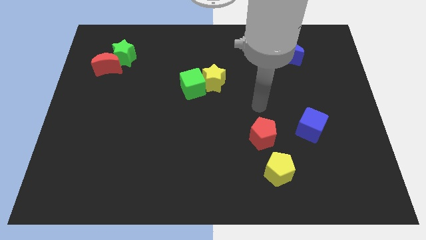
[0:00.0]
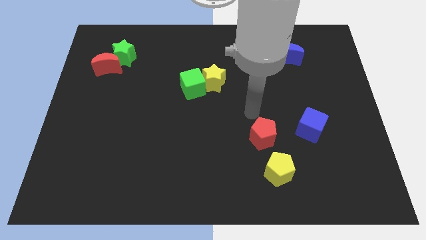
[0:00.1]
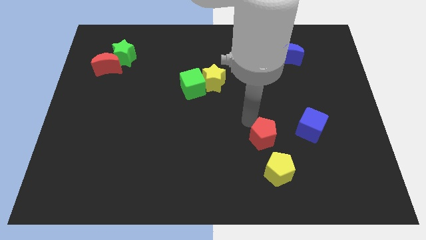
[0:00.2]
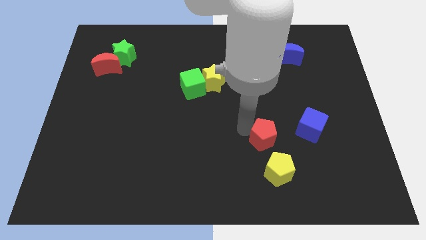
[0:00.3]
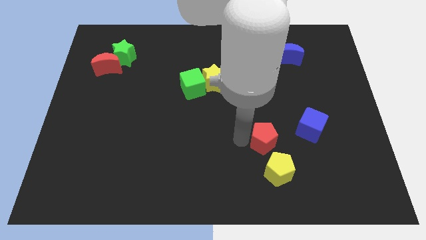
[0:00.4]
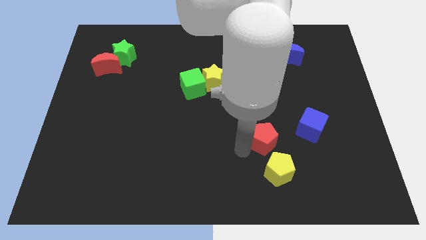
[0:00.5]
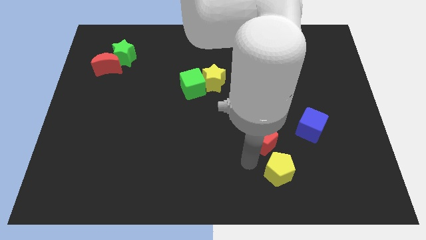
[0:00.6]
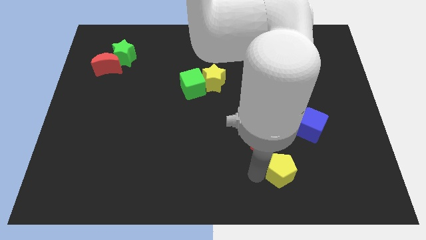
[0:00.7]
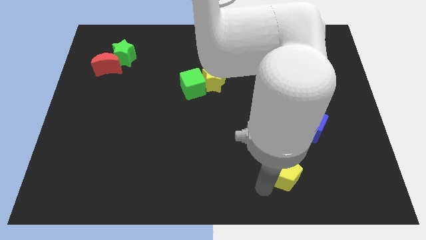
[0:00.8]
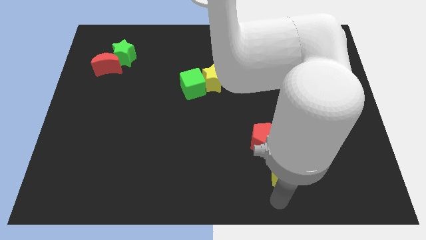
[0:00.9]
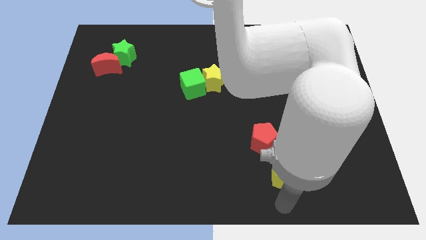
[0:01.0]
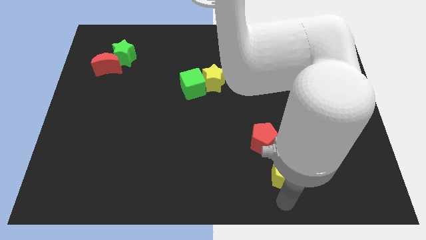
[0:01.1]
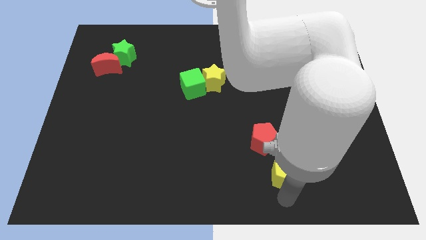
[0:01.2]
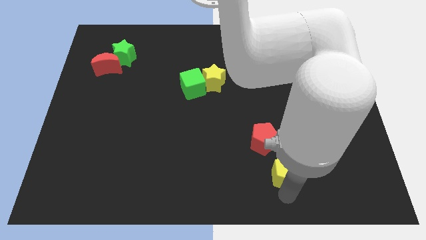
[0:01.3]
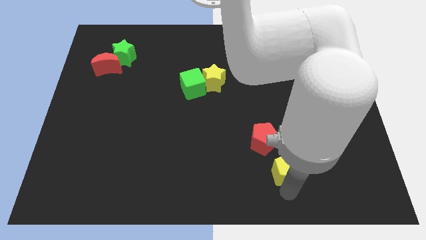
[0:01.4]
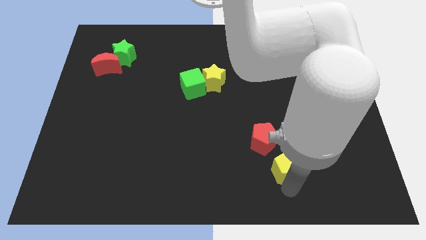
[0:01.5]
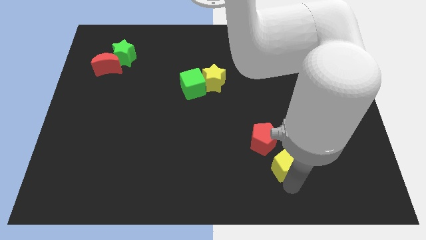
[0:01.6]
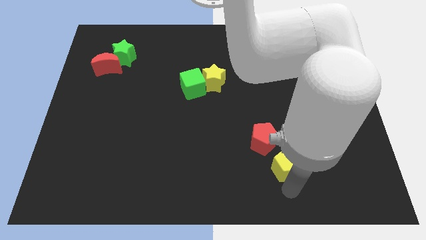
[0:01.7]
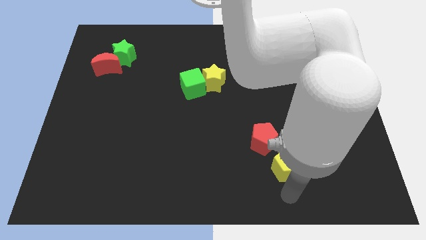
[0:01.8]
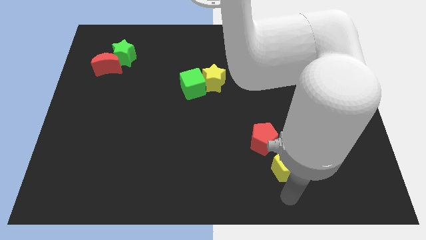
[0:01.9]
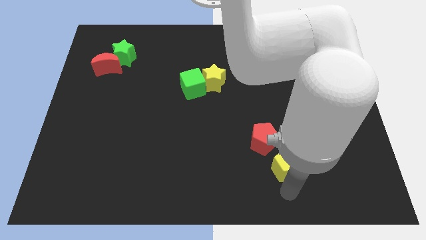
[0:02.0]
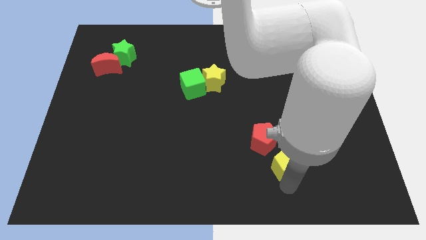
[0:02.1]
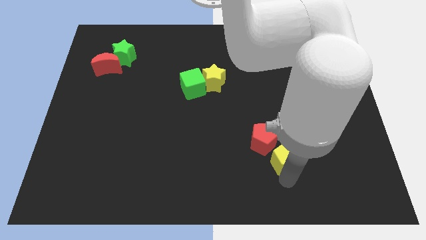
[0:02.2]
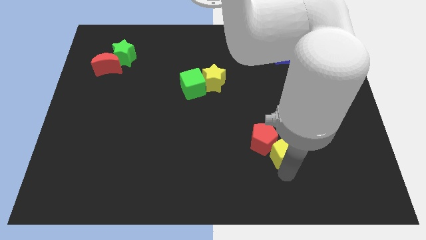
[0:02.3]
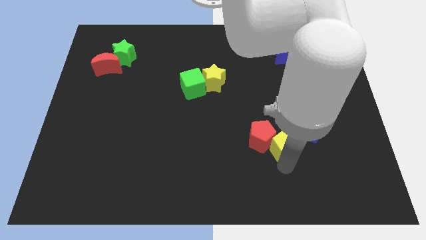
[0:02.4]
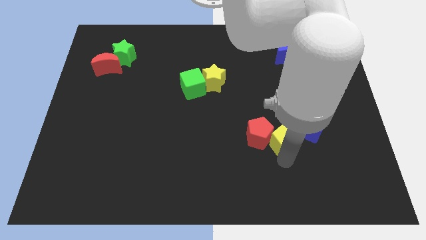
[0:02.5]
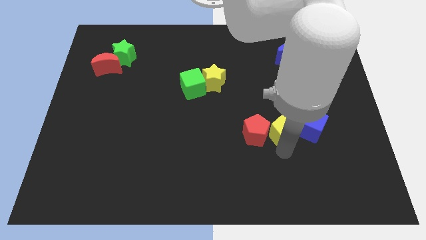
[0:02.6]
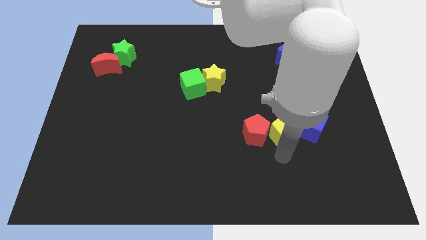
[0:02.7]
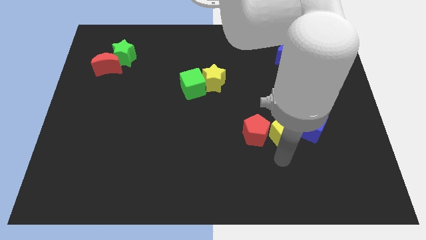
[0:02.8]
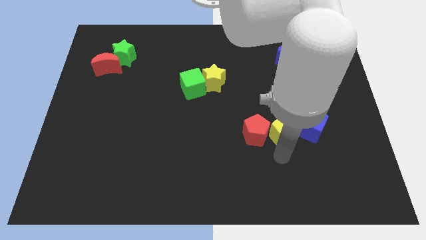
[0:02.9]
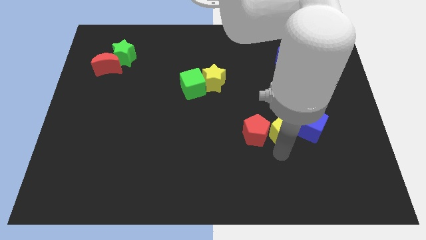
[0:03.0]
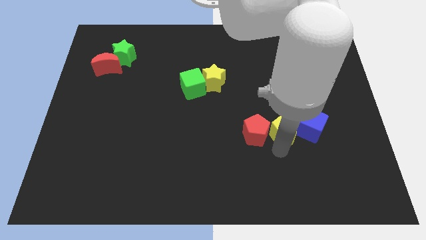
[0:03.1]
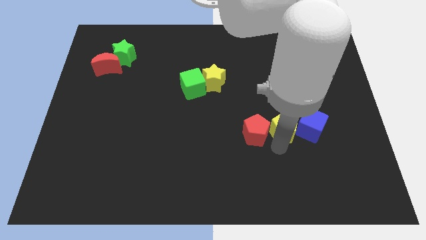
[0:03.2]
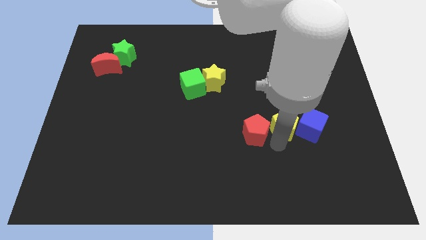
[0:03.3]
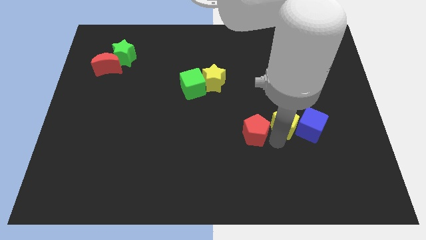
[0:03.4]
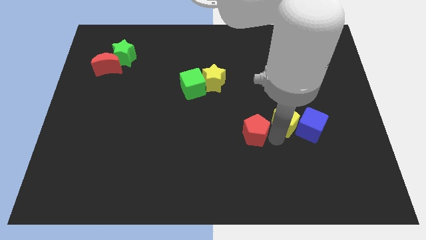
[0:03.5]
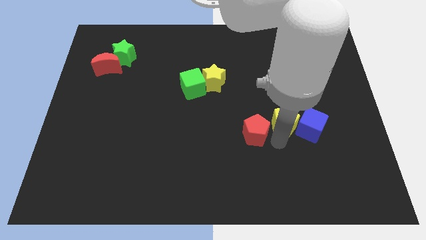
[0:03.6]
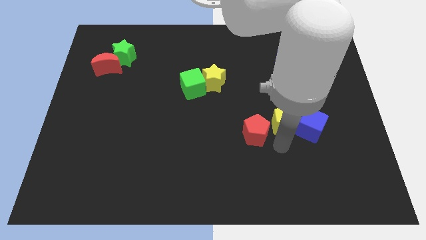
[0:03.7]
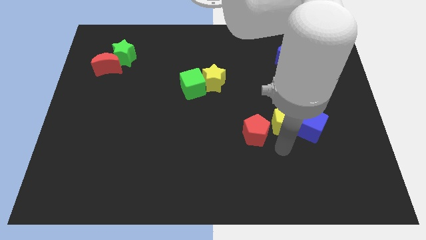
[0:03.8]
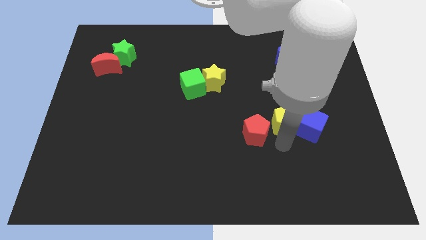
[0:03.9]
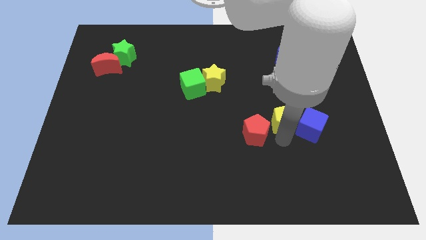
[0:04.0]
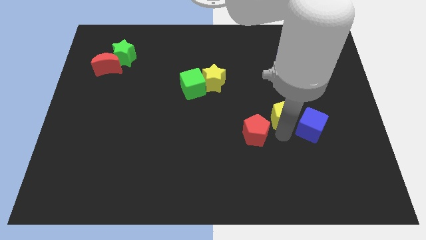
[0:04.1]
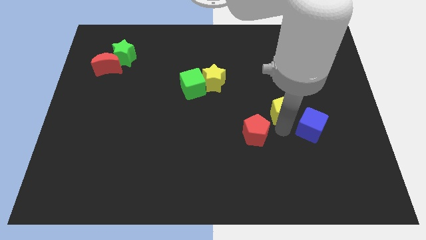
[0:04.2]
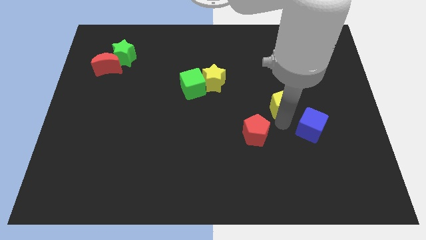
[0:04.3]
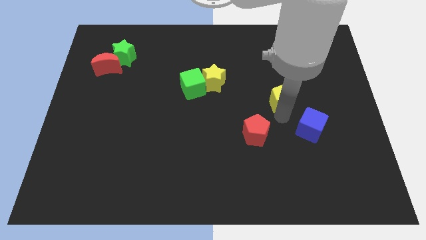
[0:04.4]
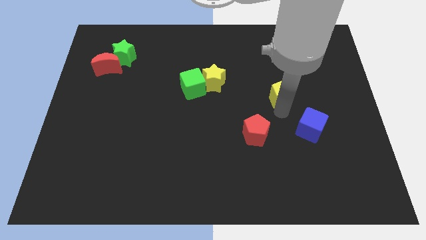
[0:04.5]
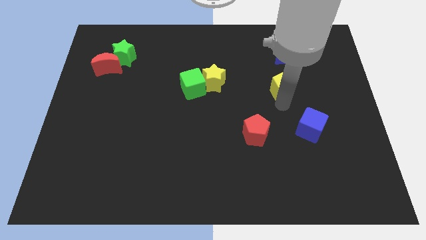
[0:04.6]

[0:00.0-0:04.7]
slide the yellow pentagon upwards

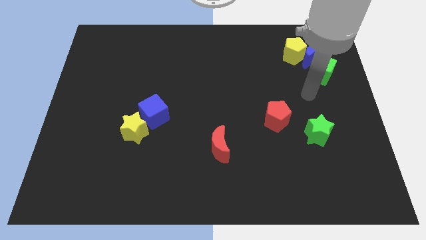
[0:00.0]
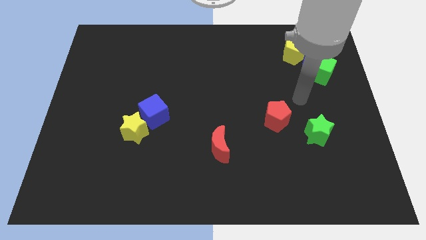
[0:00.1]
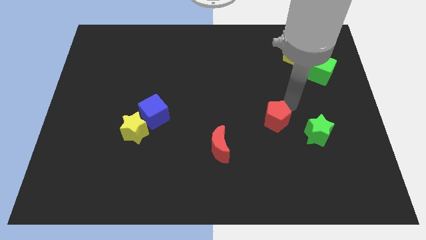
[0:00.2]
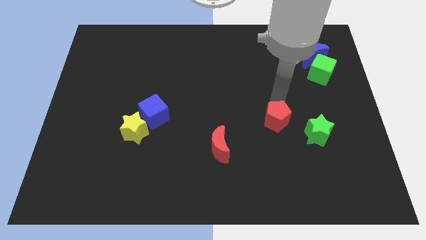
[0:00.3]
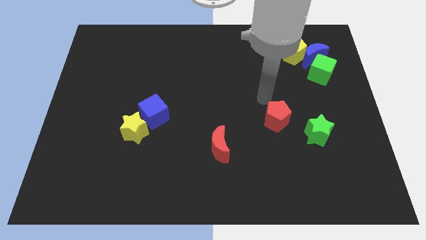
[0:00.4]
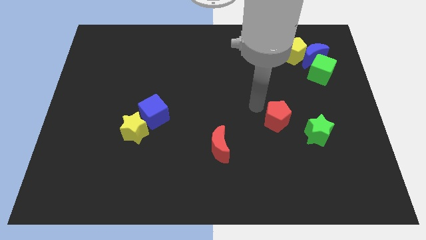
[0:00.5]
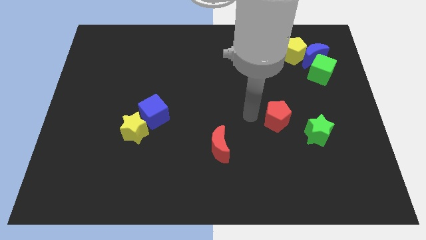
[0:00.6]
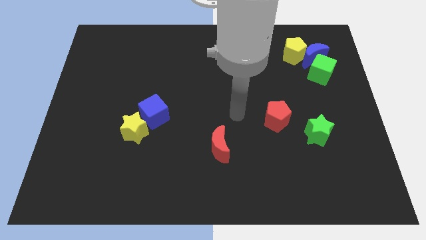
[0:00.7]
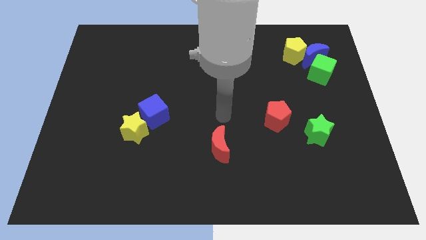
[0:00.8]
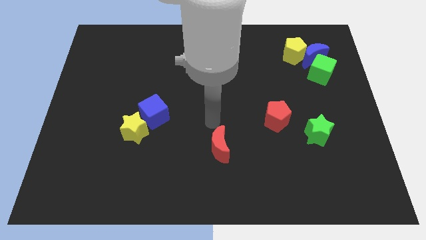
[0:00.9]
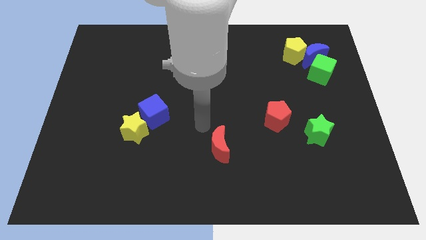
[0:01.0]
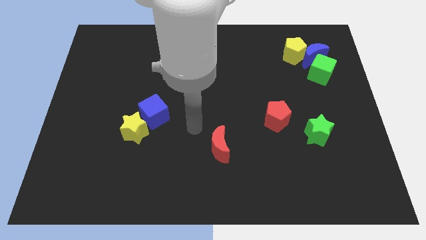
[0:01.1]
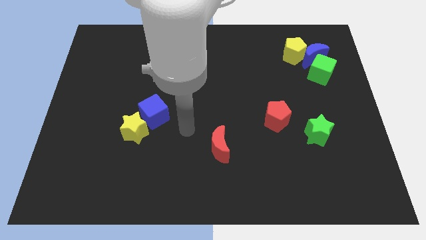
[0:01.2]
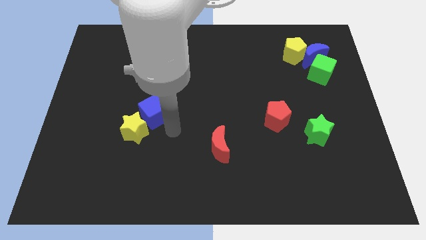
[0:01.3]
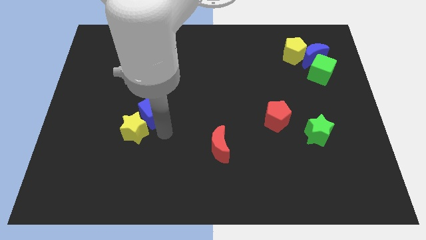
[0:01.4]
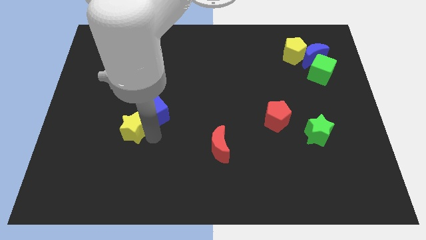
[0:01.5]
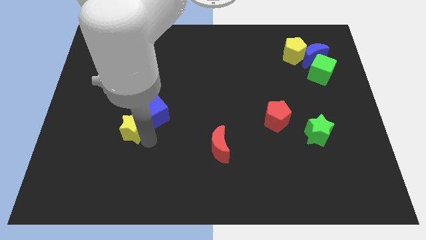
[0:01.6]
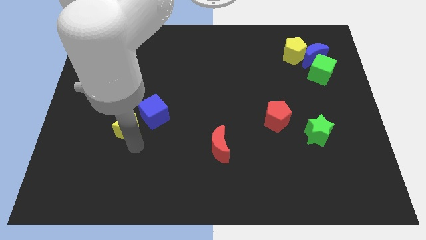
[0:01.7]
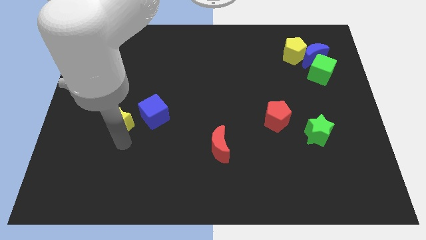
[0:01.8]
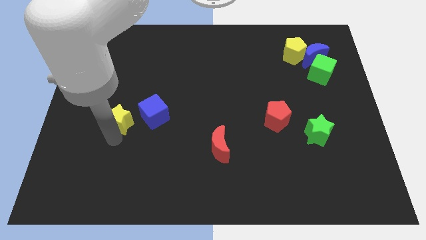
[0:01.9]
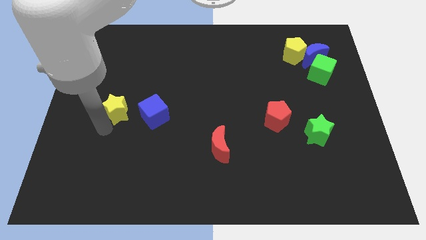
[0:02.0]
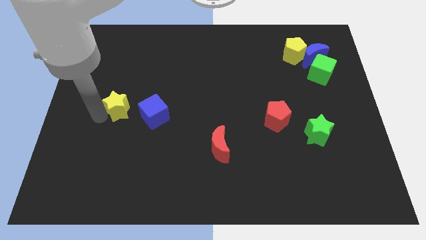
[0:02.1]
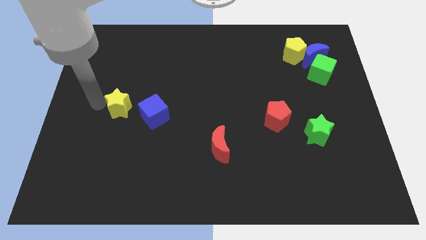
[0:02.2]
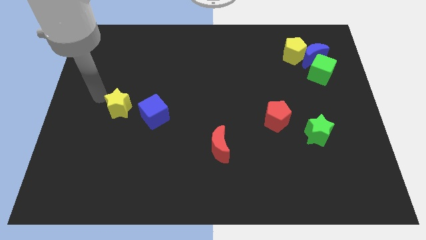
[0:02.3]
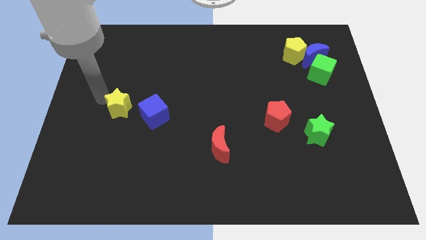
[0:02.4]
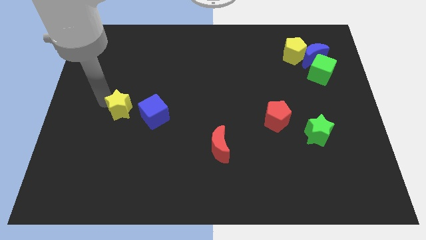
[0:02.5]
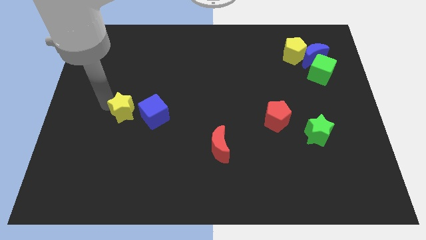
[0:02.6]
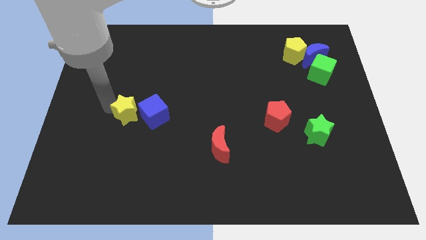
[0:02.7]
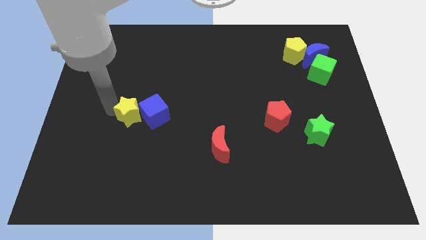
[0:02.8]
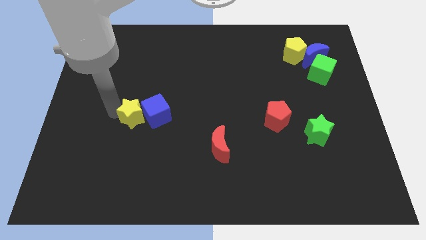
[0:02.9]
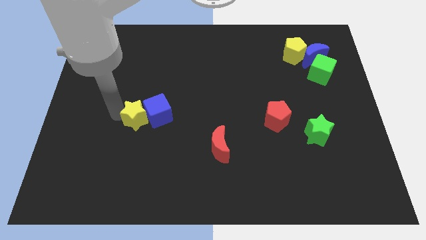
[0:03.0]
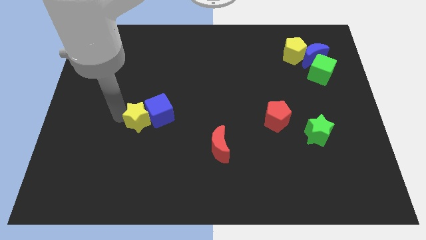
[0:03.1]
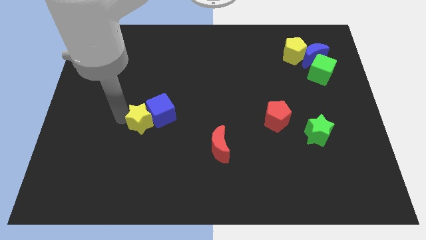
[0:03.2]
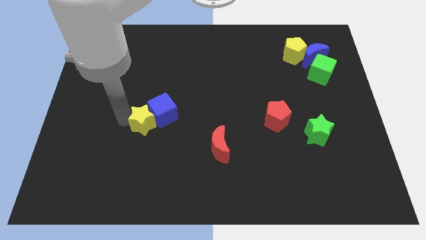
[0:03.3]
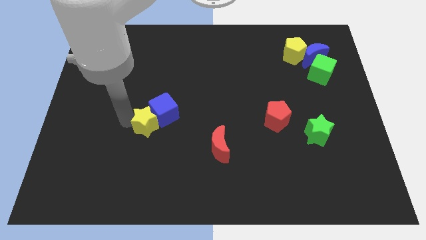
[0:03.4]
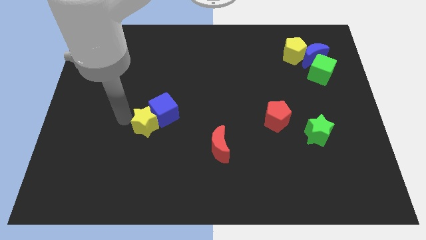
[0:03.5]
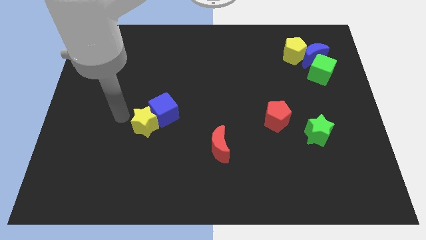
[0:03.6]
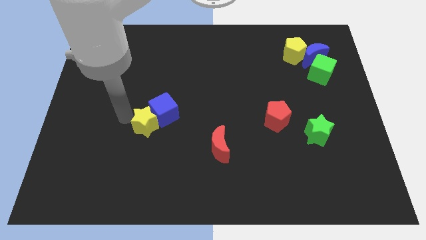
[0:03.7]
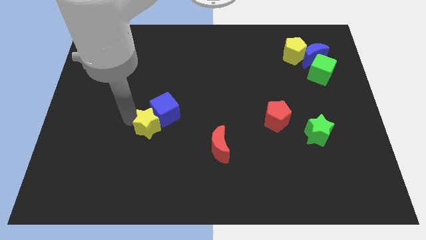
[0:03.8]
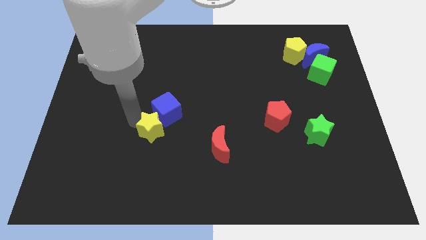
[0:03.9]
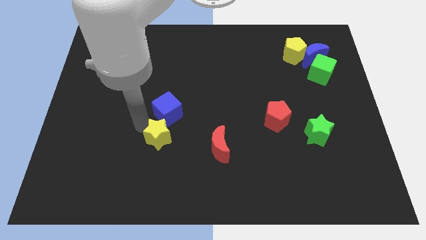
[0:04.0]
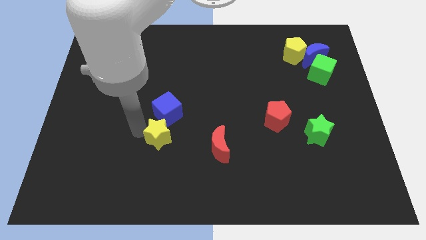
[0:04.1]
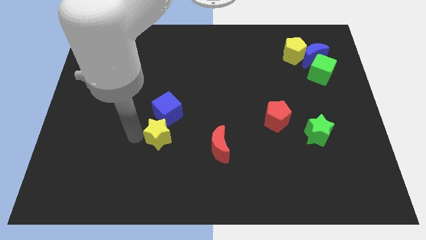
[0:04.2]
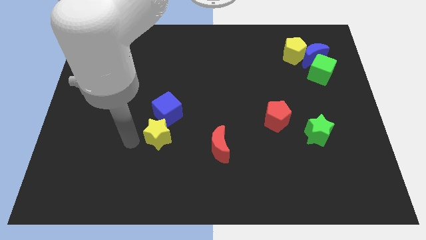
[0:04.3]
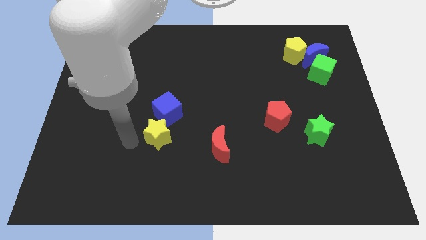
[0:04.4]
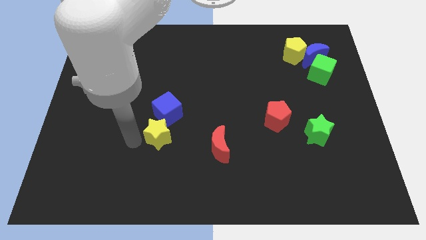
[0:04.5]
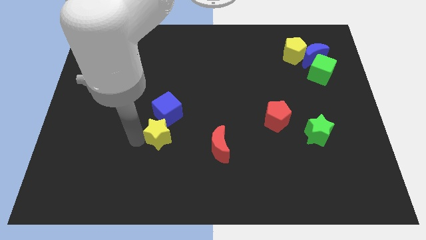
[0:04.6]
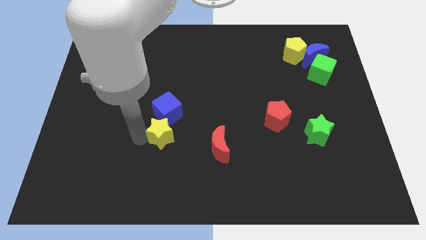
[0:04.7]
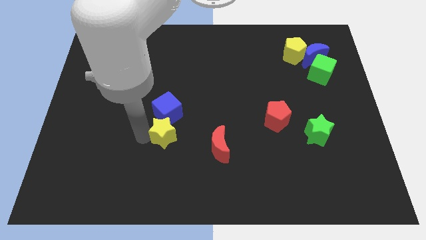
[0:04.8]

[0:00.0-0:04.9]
slightly move the yellow star to the right
